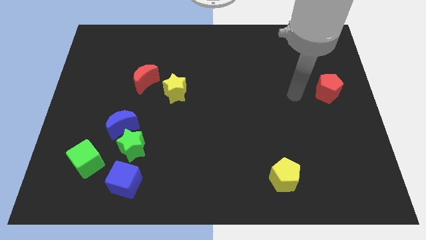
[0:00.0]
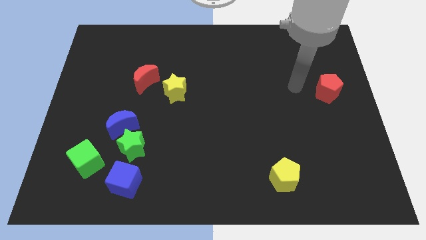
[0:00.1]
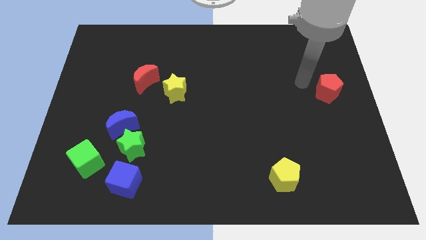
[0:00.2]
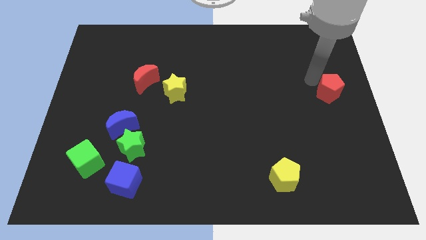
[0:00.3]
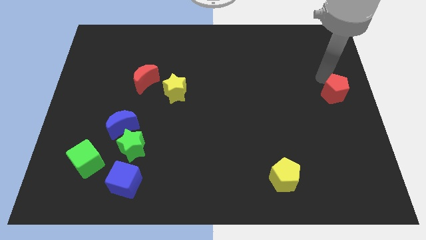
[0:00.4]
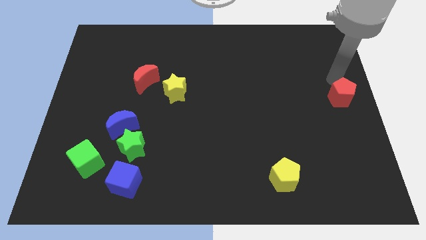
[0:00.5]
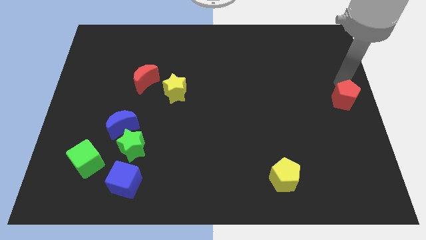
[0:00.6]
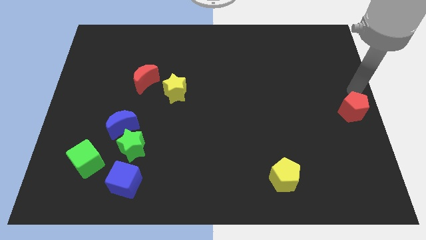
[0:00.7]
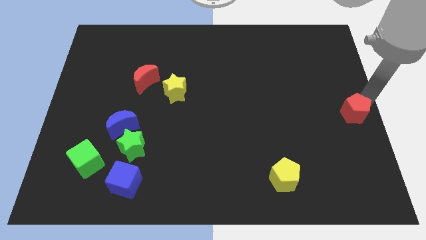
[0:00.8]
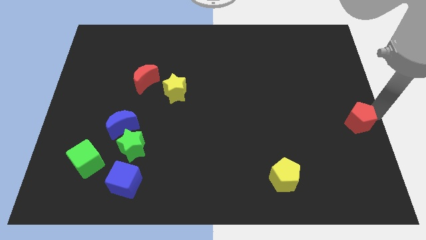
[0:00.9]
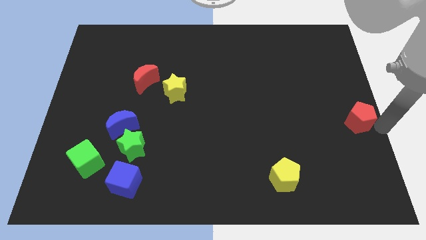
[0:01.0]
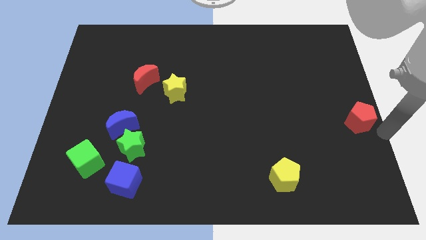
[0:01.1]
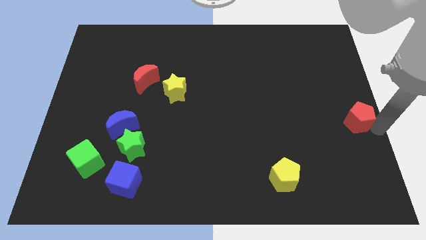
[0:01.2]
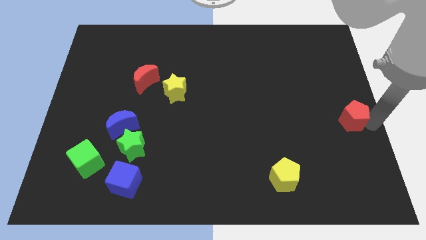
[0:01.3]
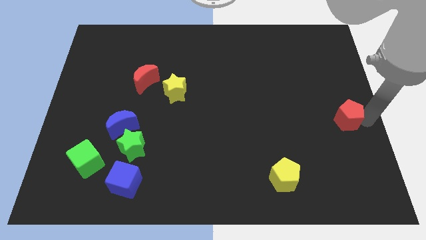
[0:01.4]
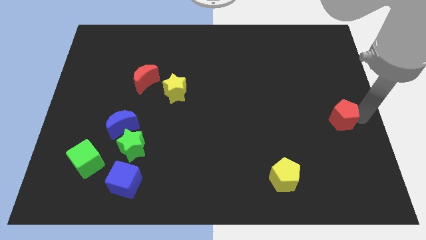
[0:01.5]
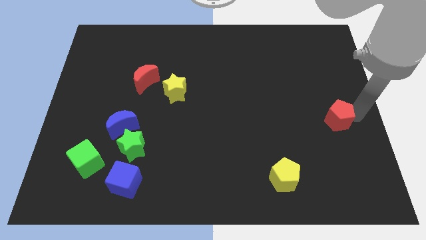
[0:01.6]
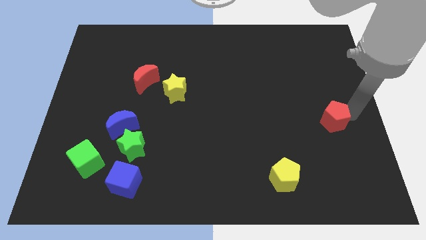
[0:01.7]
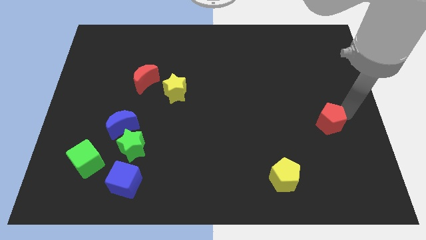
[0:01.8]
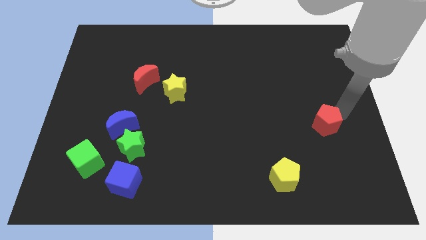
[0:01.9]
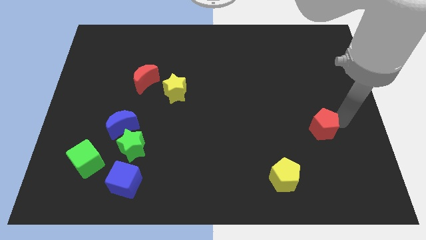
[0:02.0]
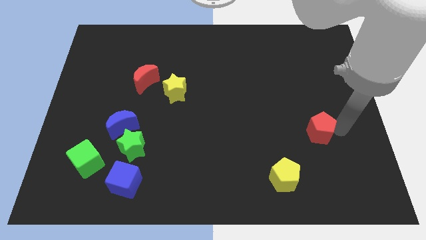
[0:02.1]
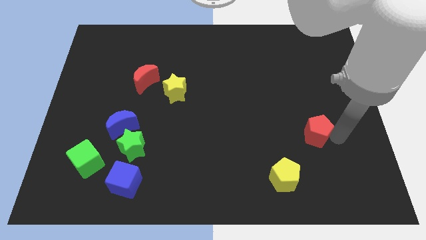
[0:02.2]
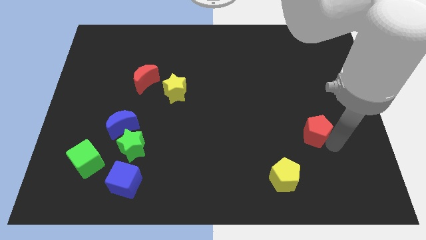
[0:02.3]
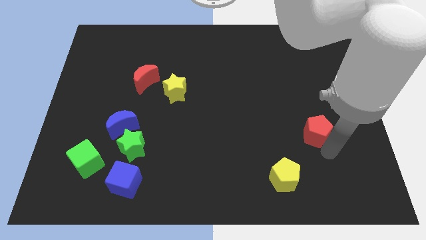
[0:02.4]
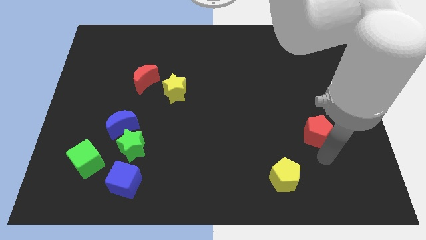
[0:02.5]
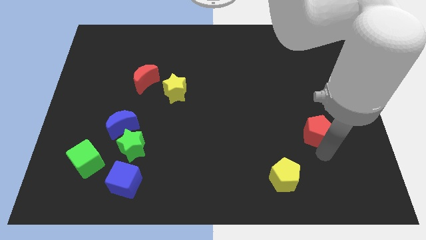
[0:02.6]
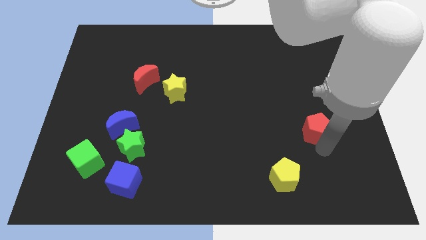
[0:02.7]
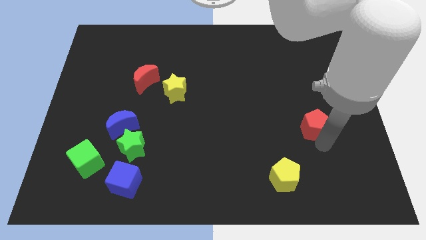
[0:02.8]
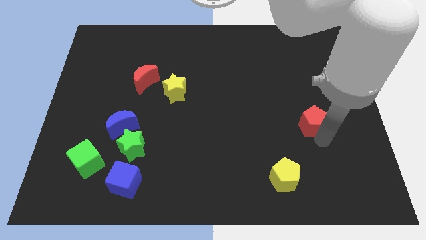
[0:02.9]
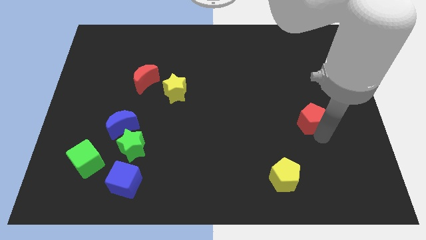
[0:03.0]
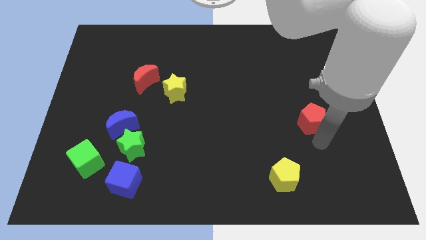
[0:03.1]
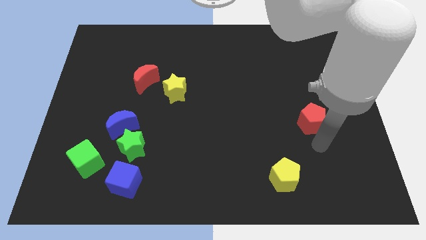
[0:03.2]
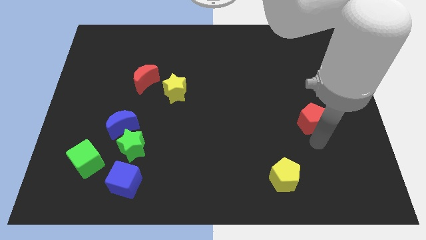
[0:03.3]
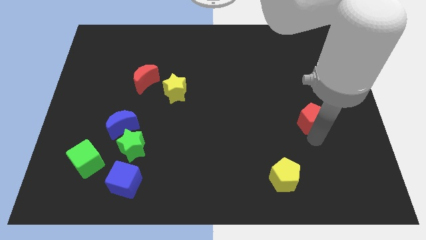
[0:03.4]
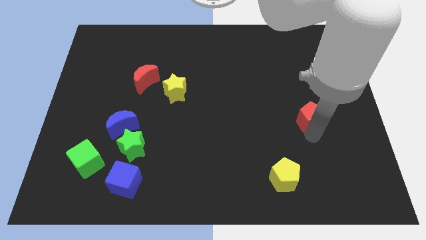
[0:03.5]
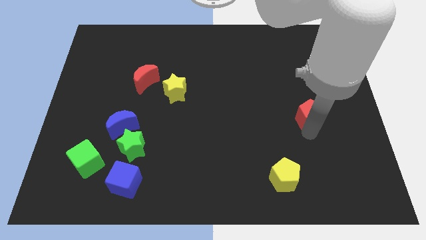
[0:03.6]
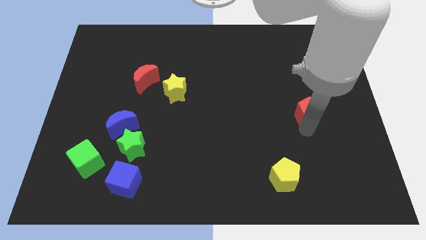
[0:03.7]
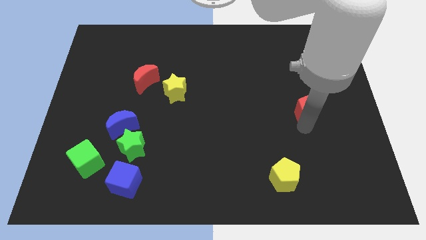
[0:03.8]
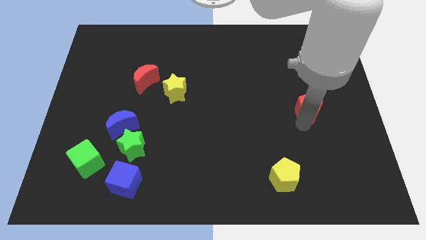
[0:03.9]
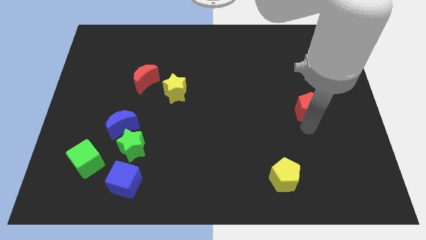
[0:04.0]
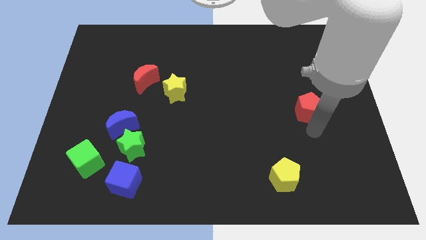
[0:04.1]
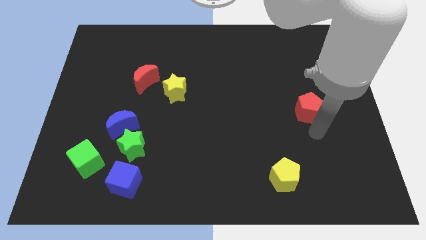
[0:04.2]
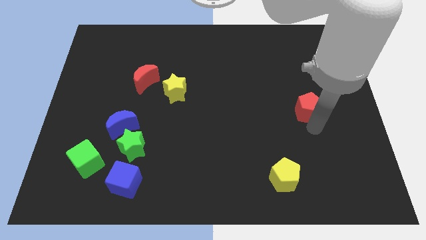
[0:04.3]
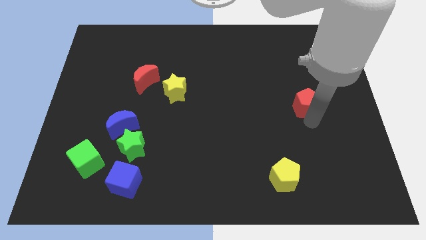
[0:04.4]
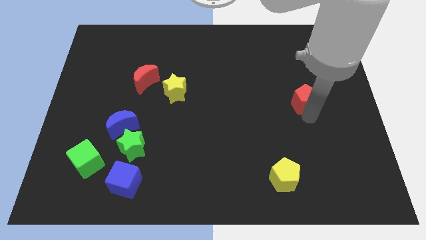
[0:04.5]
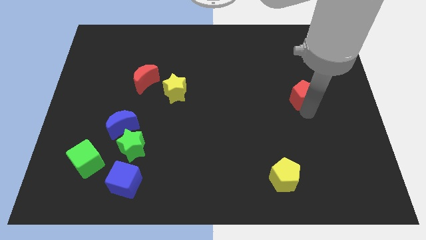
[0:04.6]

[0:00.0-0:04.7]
push the red pentagon left somewhat

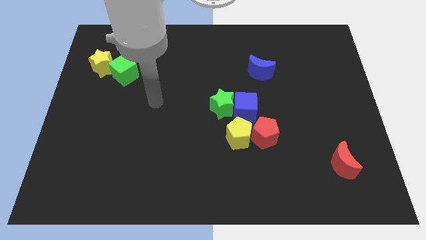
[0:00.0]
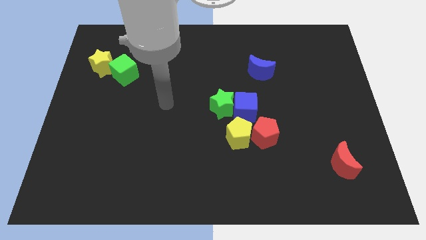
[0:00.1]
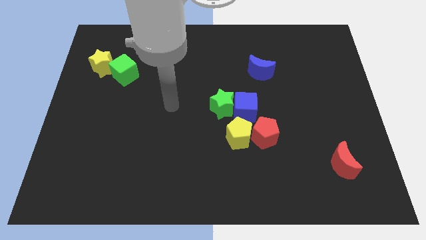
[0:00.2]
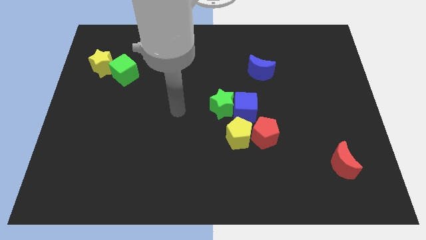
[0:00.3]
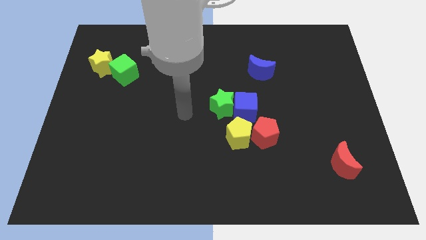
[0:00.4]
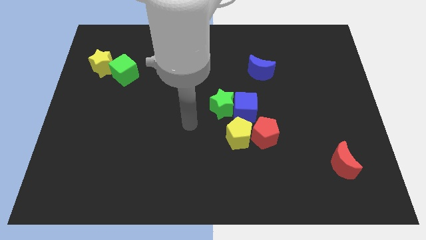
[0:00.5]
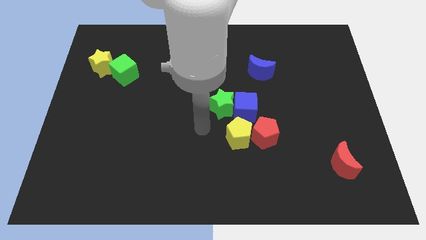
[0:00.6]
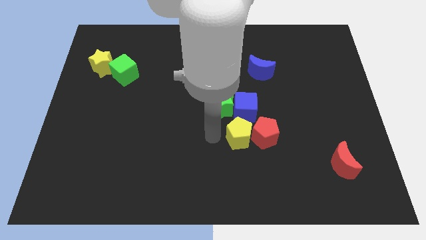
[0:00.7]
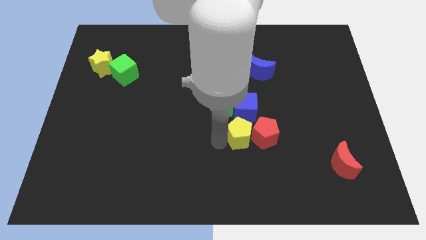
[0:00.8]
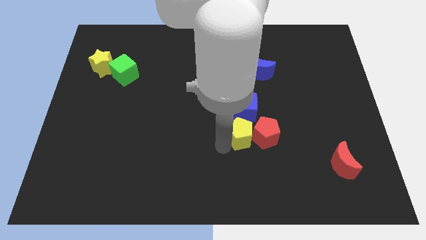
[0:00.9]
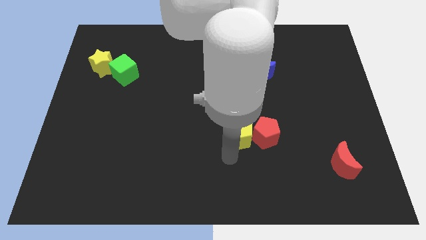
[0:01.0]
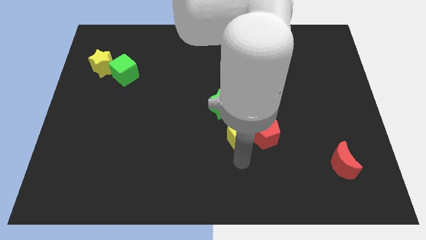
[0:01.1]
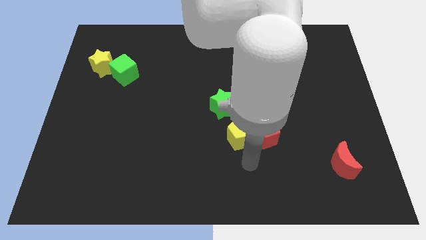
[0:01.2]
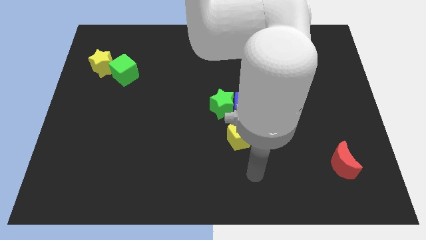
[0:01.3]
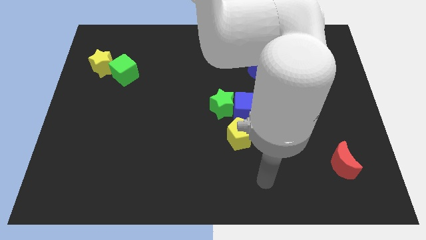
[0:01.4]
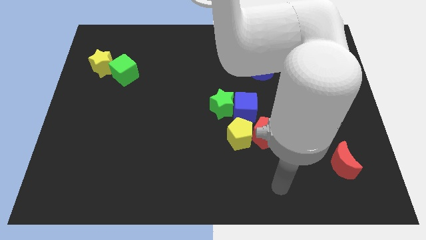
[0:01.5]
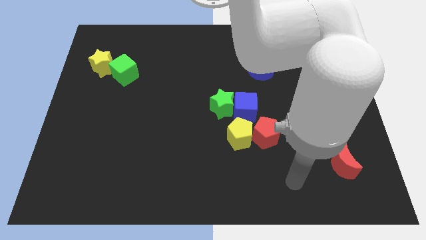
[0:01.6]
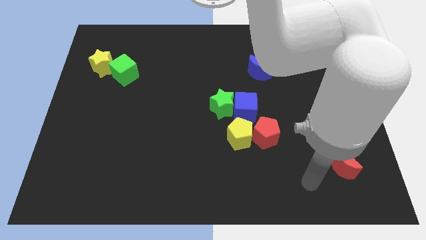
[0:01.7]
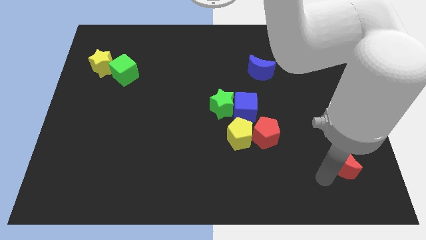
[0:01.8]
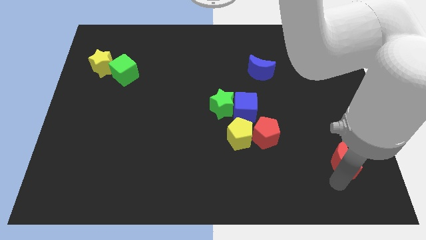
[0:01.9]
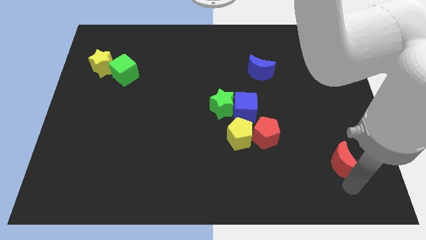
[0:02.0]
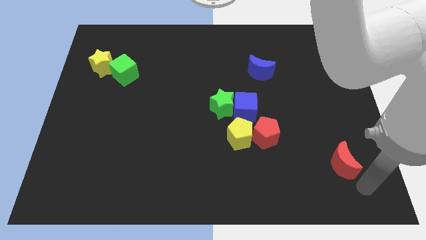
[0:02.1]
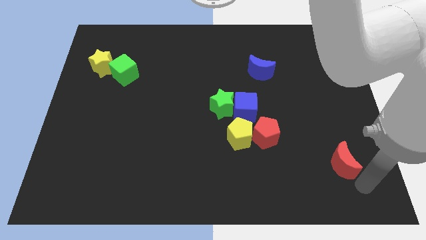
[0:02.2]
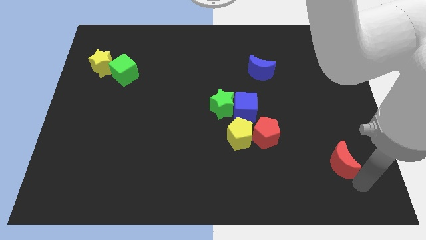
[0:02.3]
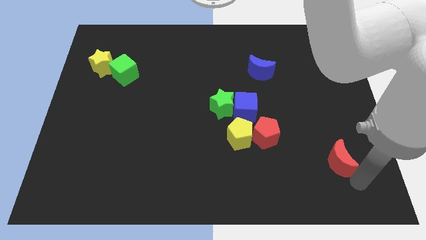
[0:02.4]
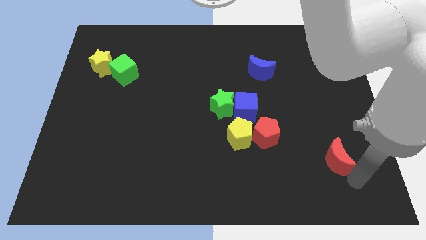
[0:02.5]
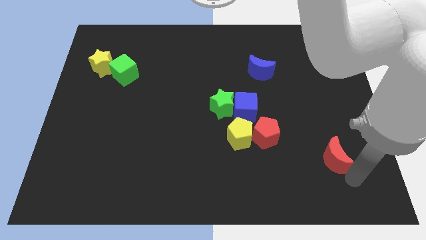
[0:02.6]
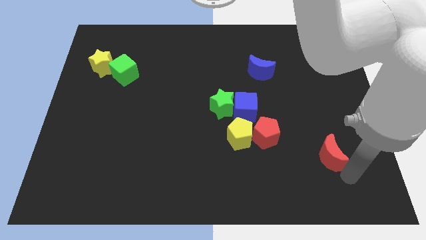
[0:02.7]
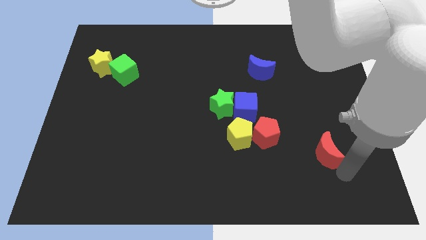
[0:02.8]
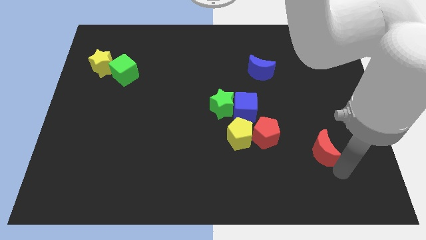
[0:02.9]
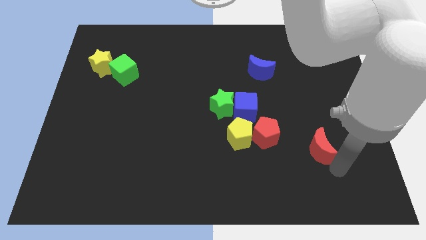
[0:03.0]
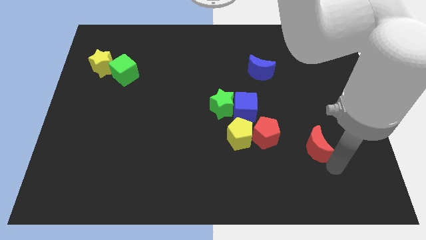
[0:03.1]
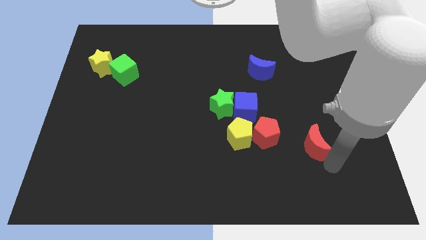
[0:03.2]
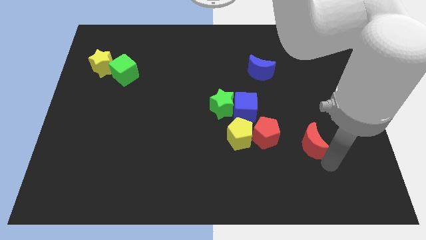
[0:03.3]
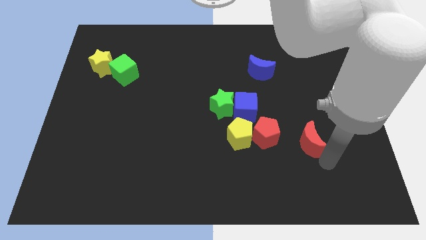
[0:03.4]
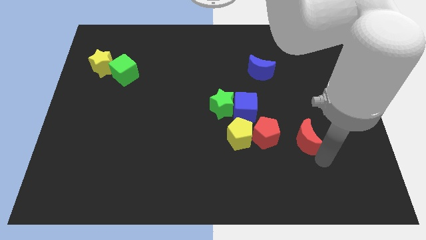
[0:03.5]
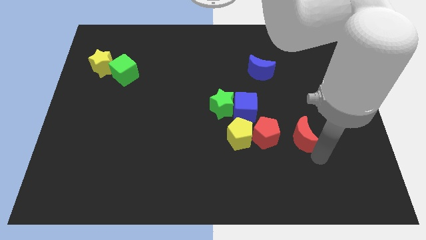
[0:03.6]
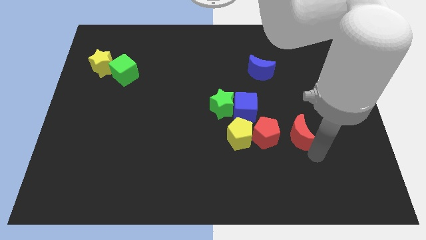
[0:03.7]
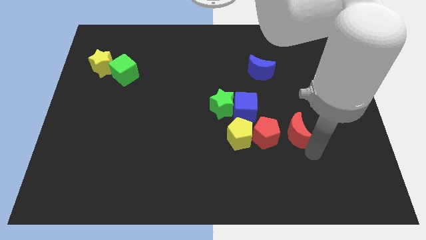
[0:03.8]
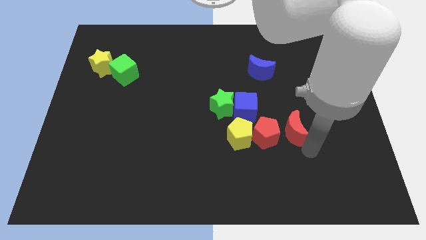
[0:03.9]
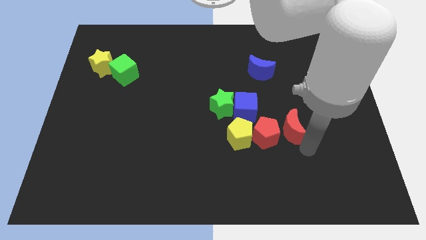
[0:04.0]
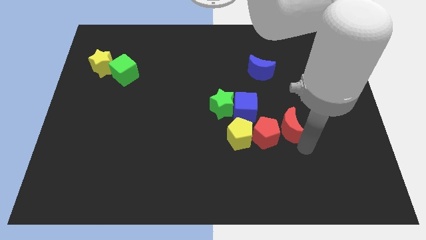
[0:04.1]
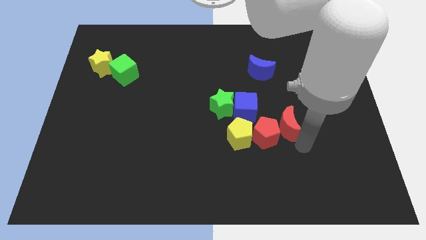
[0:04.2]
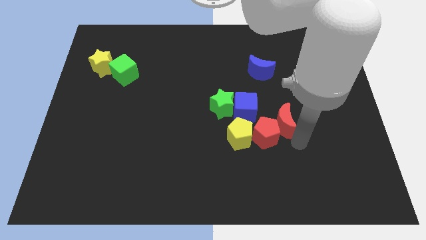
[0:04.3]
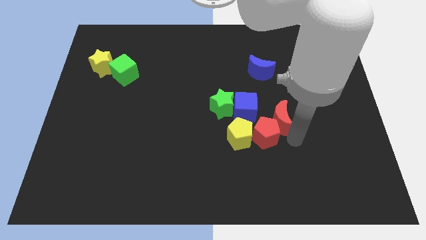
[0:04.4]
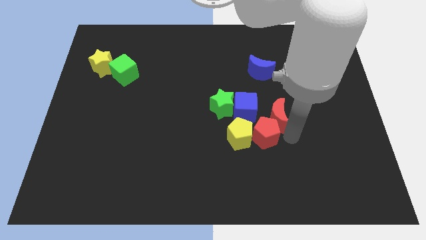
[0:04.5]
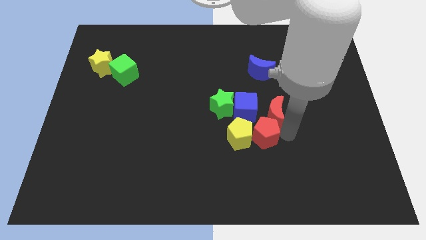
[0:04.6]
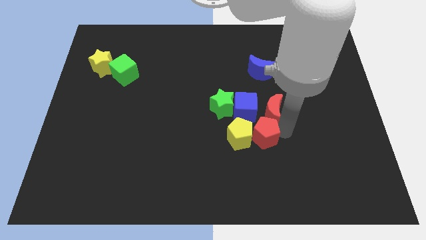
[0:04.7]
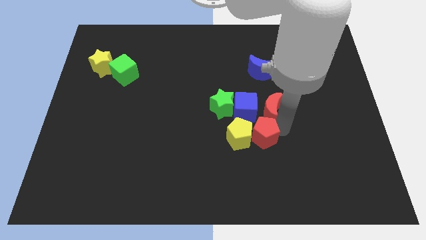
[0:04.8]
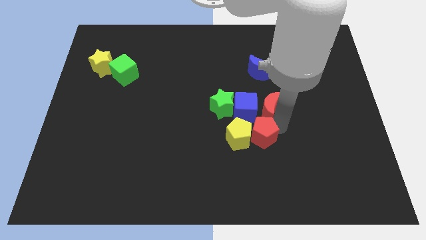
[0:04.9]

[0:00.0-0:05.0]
move the red moon diagonally upwards and left
